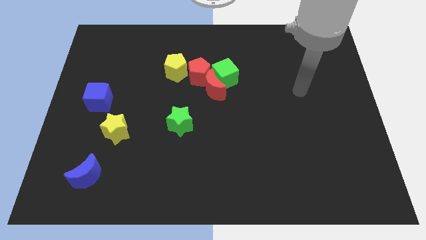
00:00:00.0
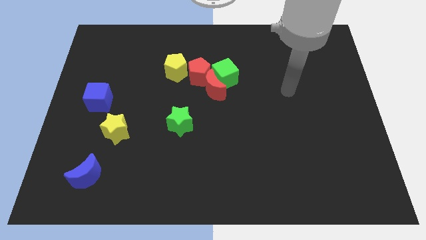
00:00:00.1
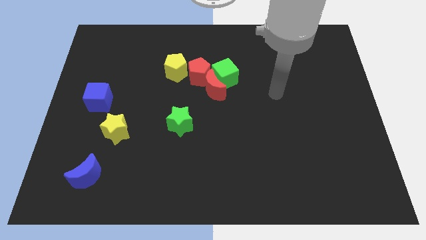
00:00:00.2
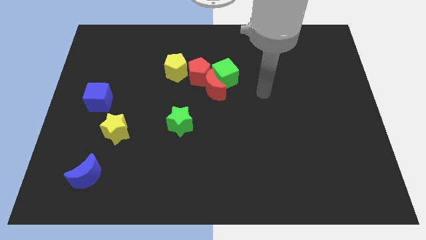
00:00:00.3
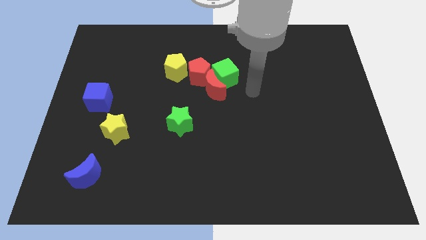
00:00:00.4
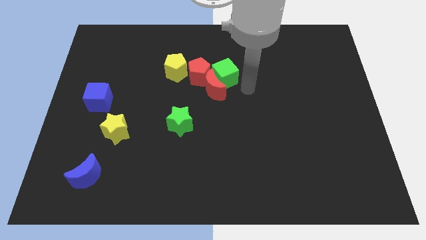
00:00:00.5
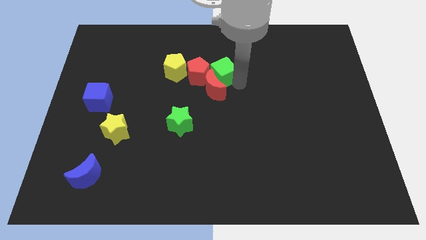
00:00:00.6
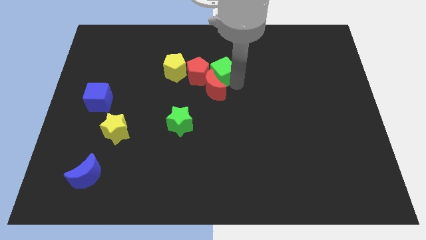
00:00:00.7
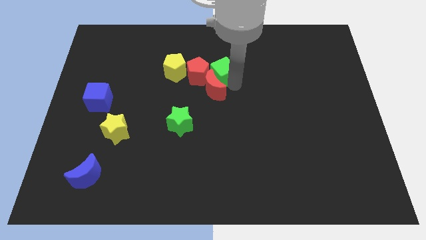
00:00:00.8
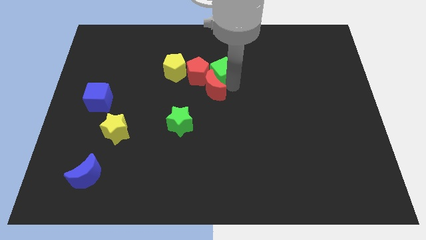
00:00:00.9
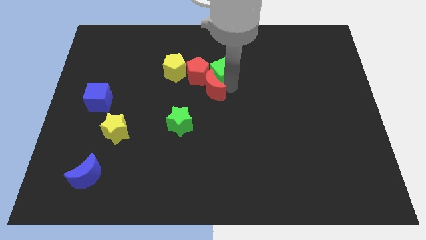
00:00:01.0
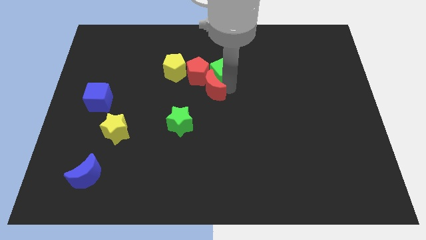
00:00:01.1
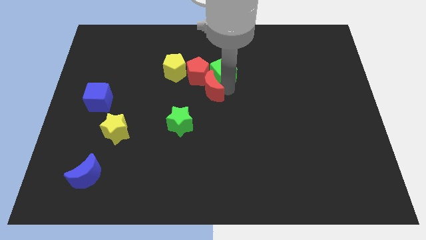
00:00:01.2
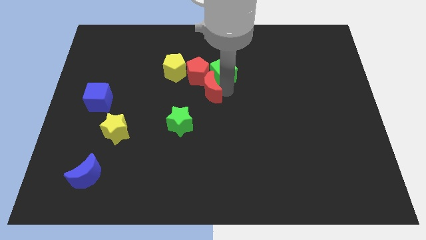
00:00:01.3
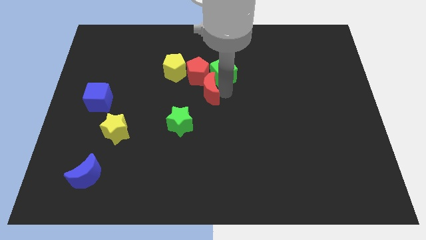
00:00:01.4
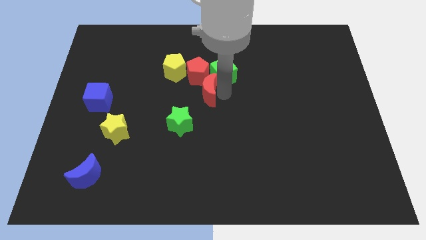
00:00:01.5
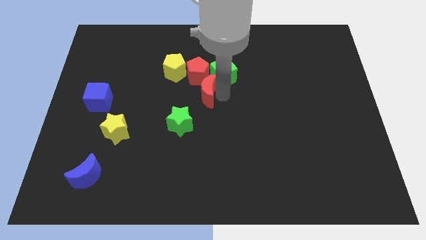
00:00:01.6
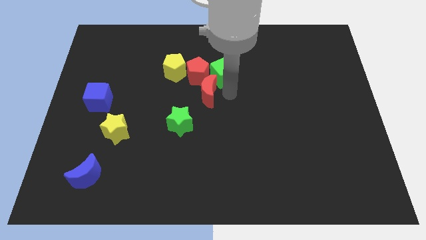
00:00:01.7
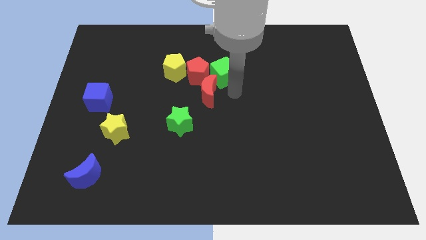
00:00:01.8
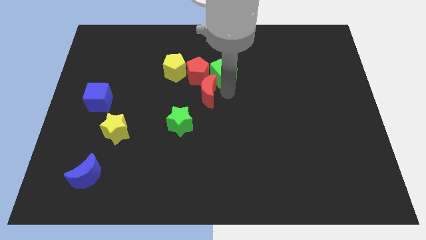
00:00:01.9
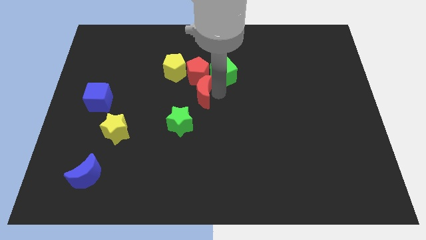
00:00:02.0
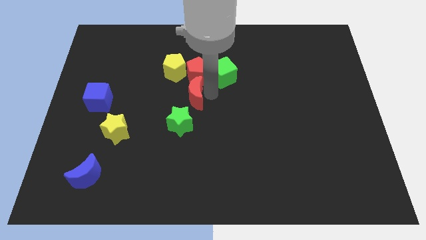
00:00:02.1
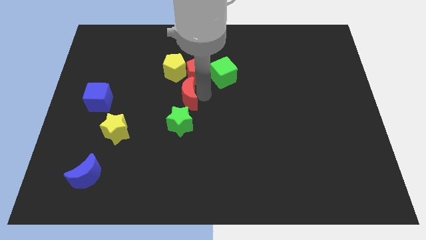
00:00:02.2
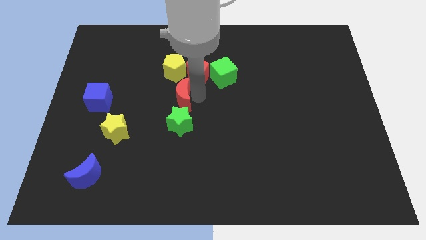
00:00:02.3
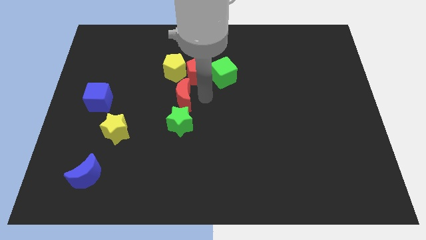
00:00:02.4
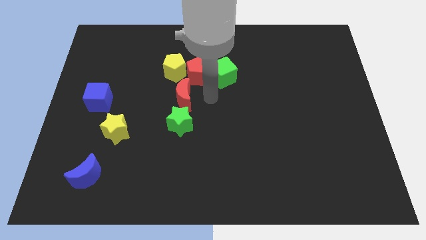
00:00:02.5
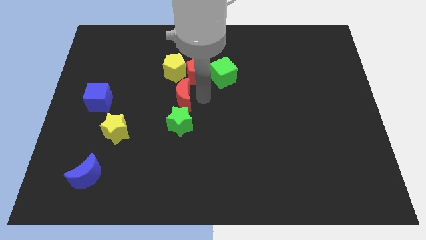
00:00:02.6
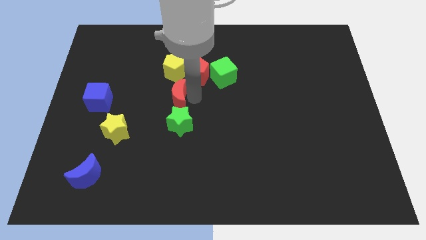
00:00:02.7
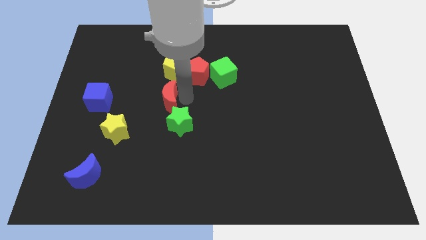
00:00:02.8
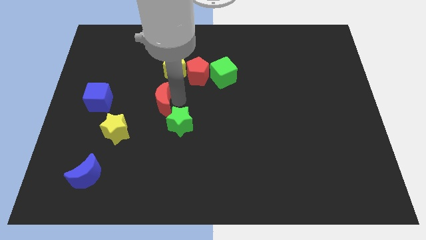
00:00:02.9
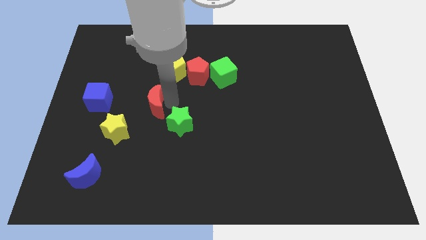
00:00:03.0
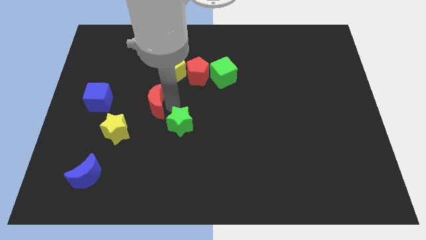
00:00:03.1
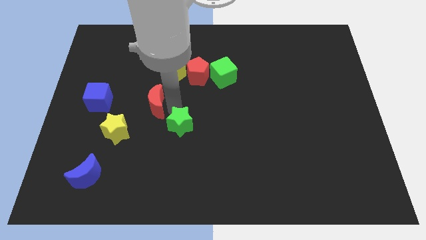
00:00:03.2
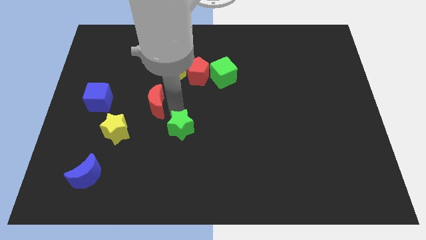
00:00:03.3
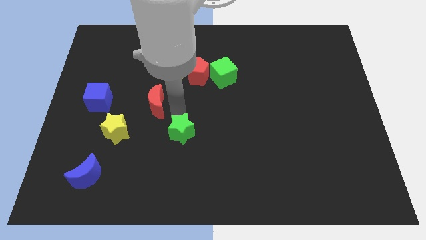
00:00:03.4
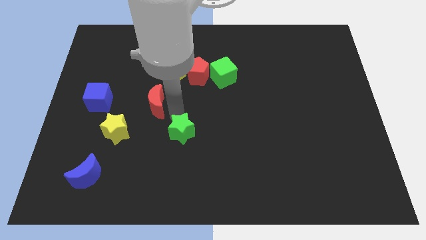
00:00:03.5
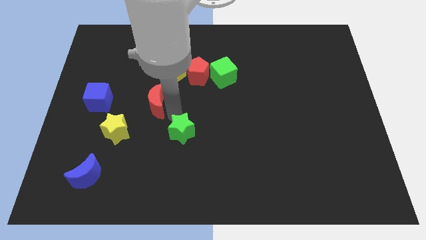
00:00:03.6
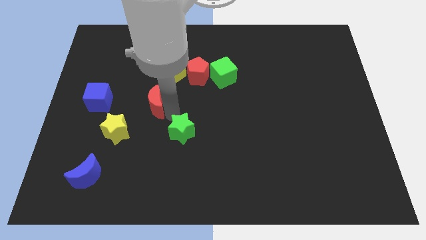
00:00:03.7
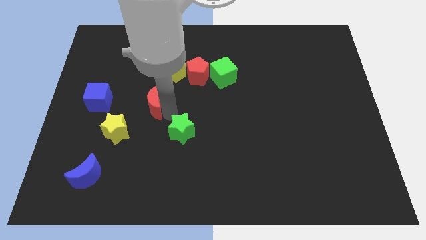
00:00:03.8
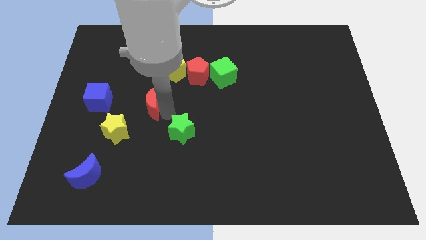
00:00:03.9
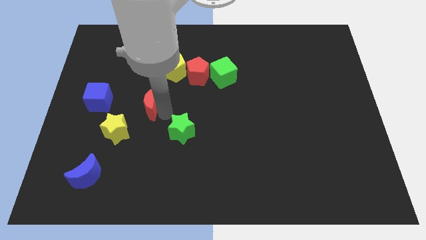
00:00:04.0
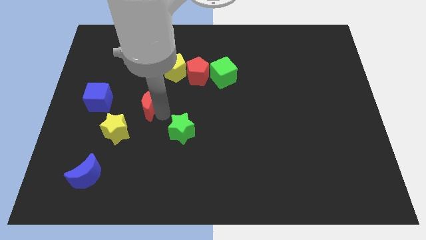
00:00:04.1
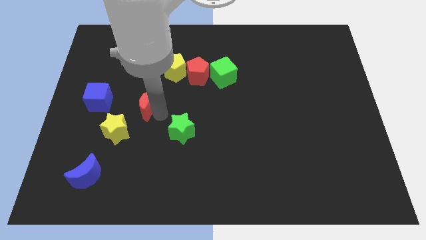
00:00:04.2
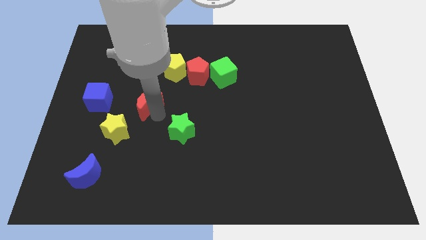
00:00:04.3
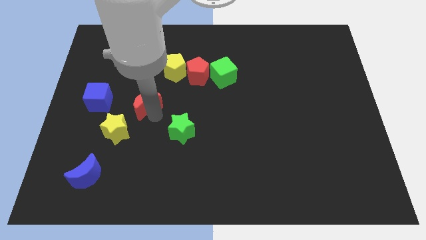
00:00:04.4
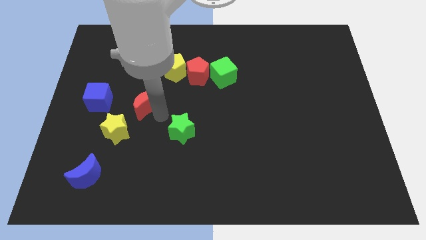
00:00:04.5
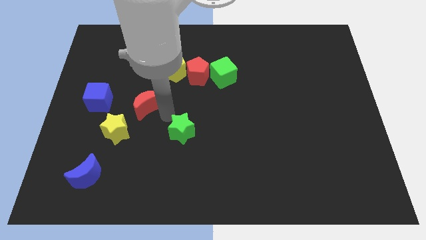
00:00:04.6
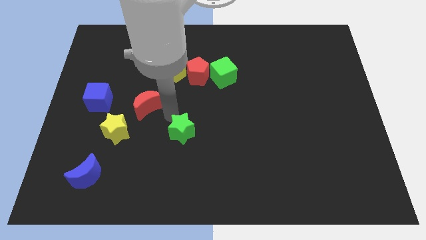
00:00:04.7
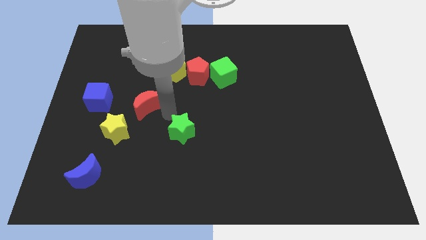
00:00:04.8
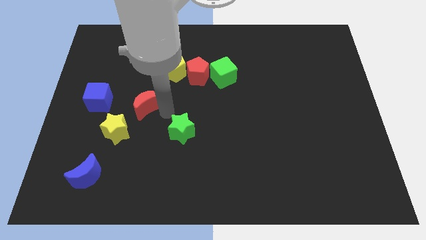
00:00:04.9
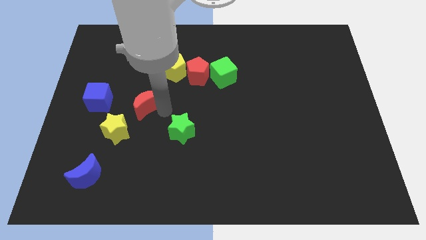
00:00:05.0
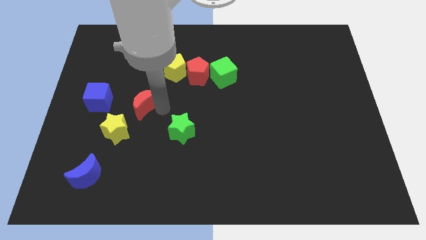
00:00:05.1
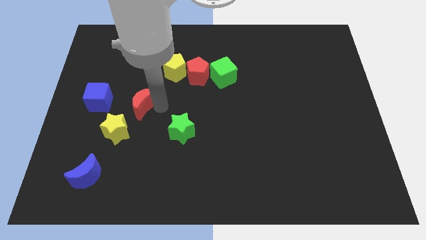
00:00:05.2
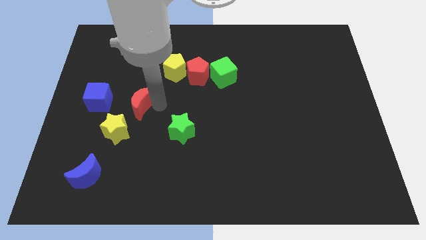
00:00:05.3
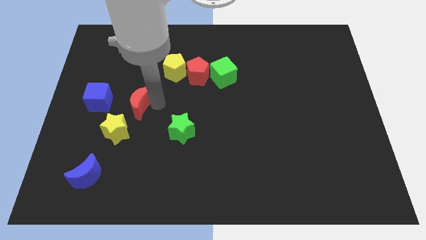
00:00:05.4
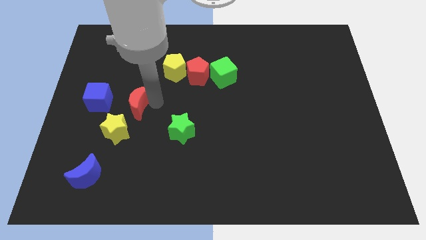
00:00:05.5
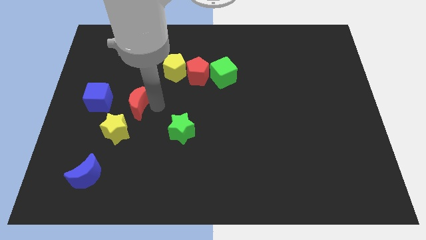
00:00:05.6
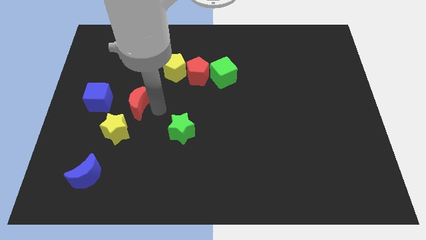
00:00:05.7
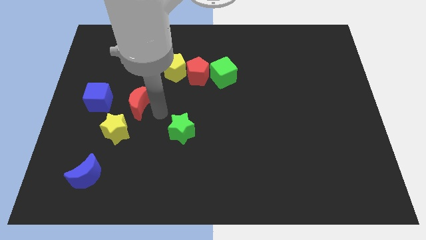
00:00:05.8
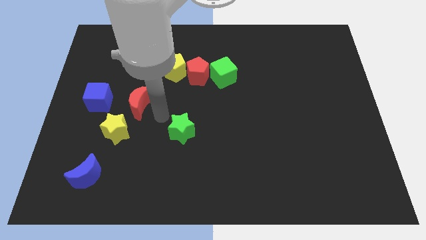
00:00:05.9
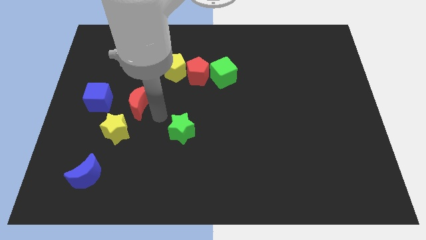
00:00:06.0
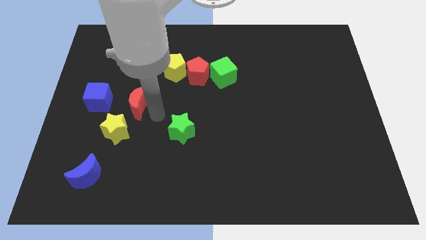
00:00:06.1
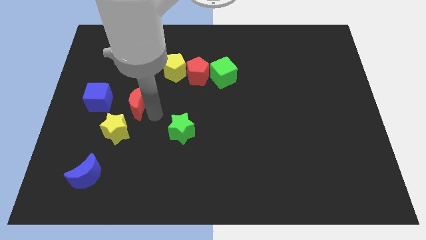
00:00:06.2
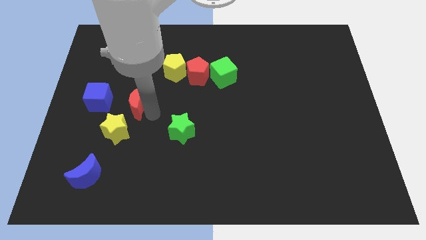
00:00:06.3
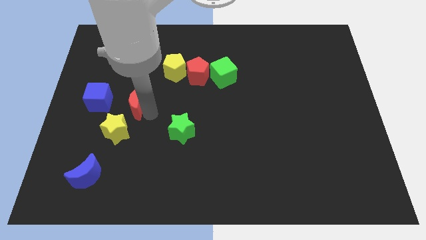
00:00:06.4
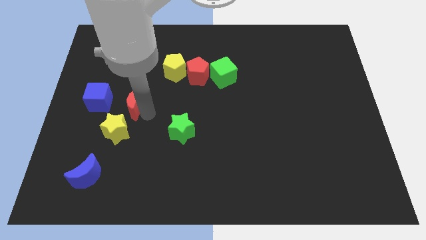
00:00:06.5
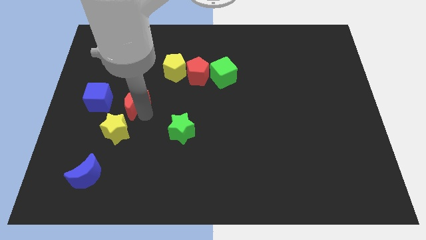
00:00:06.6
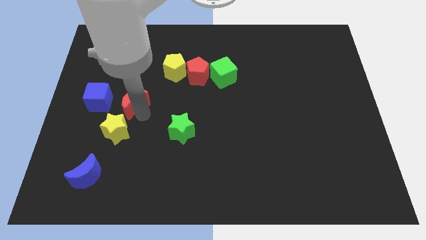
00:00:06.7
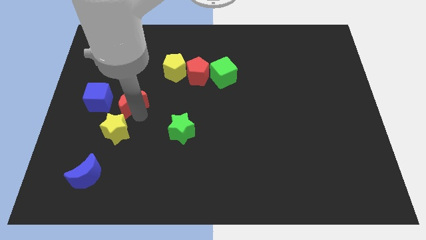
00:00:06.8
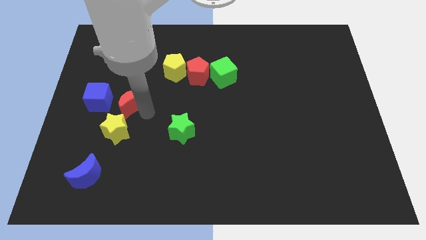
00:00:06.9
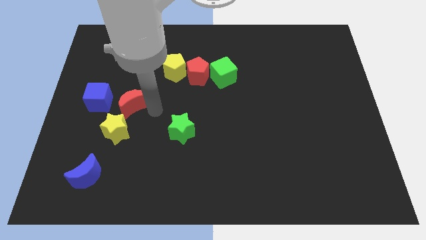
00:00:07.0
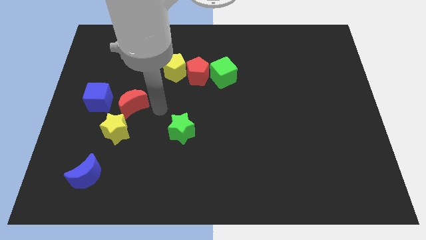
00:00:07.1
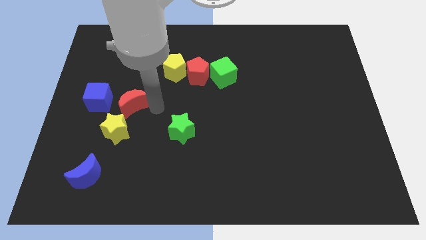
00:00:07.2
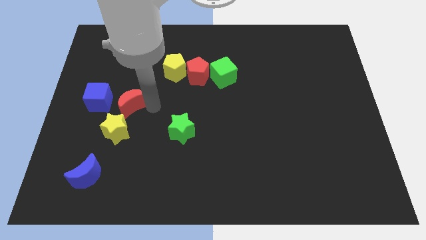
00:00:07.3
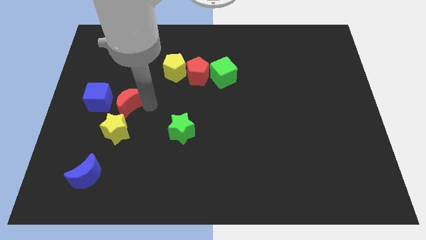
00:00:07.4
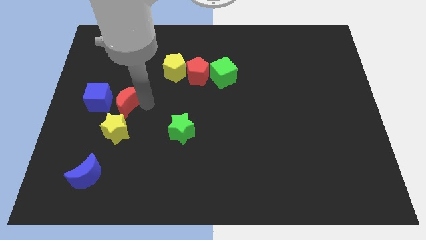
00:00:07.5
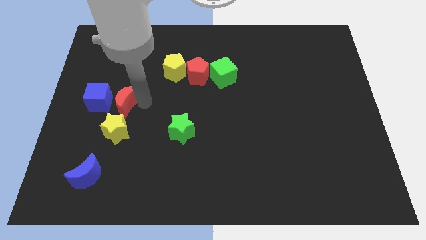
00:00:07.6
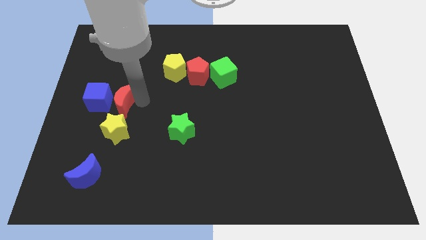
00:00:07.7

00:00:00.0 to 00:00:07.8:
slide the red moon towards the blue cube

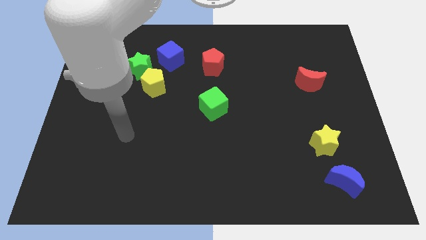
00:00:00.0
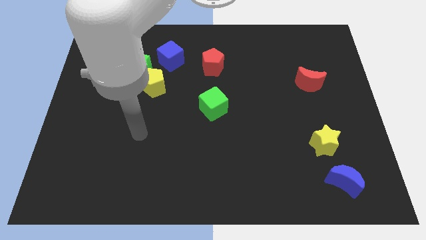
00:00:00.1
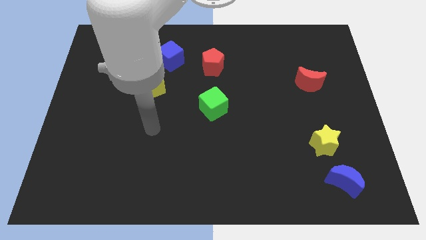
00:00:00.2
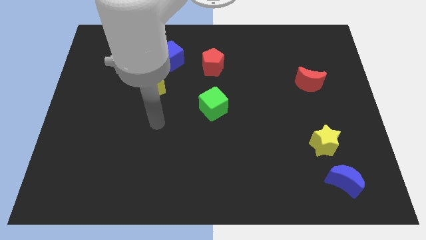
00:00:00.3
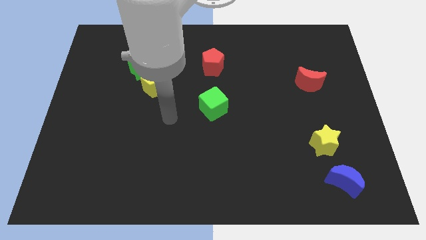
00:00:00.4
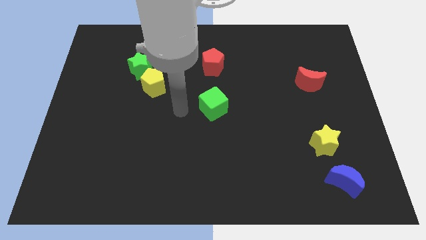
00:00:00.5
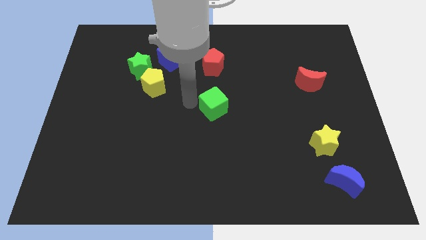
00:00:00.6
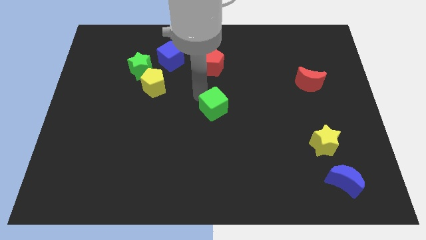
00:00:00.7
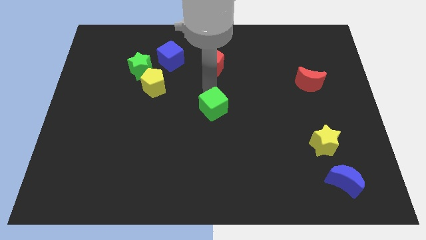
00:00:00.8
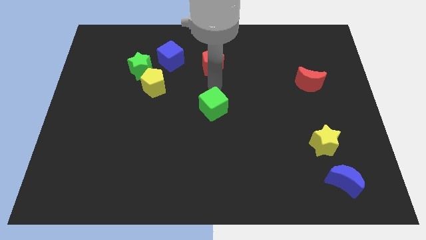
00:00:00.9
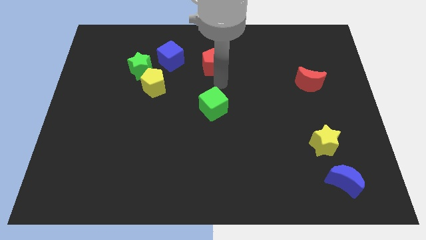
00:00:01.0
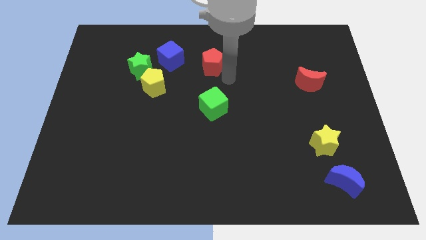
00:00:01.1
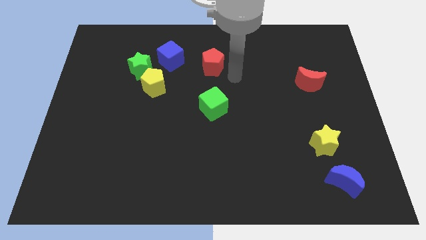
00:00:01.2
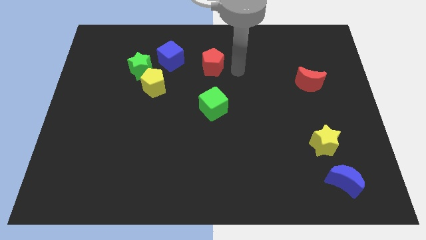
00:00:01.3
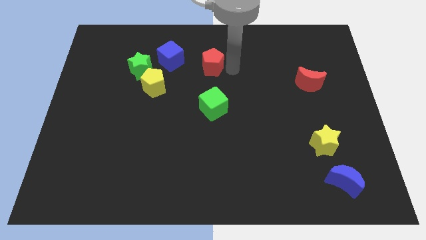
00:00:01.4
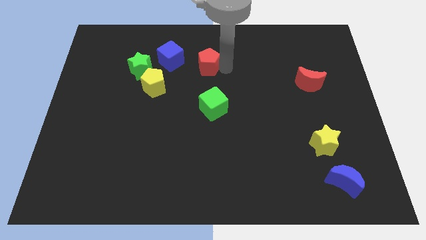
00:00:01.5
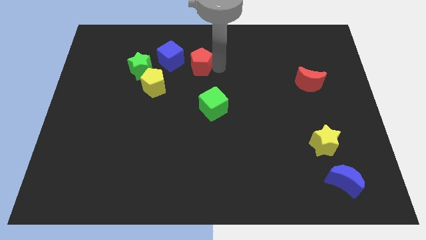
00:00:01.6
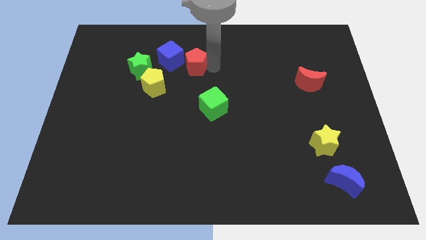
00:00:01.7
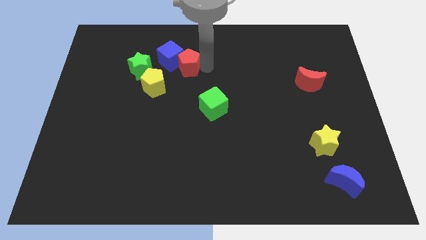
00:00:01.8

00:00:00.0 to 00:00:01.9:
push the red pentagon towards the blue cube
